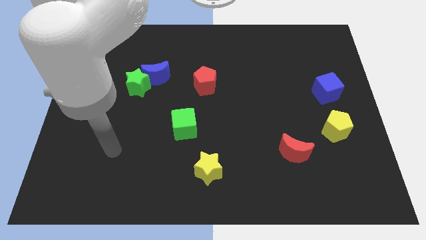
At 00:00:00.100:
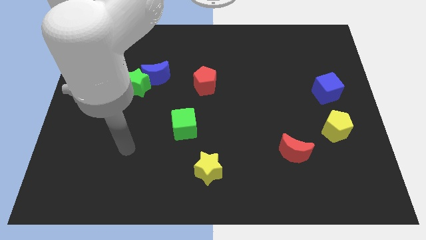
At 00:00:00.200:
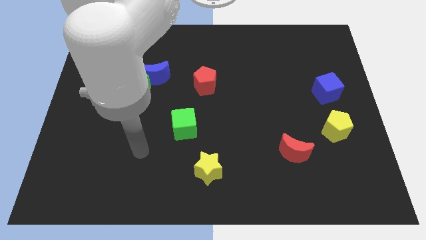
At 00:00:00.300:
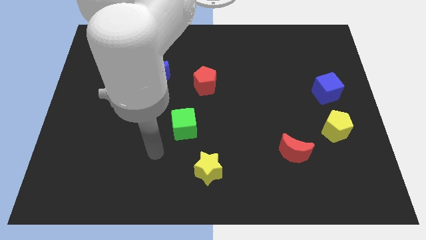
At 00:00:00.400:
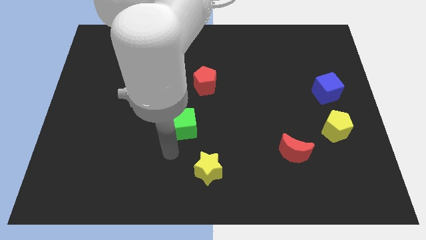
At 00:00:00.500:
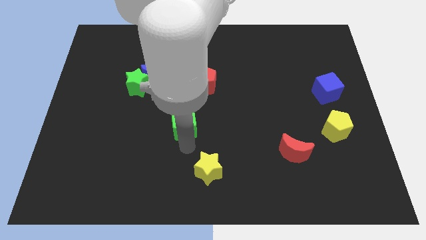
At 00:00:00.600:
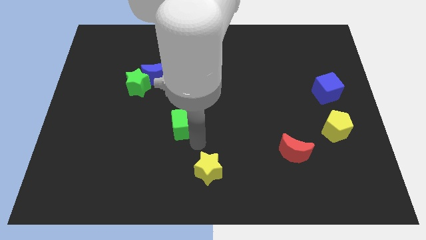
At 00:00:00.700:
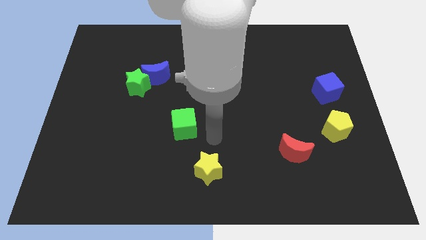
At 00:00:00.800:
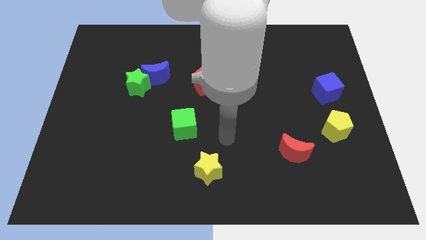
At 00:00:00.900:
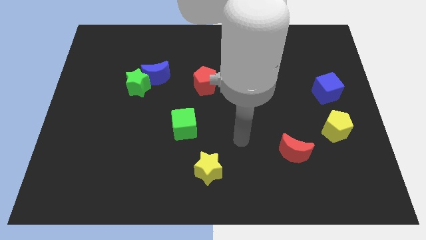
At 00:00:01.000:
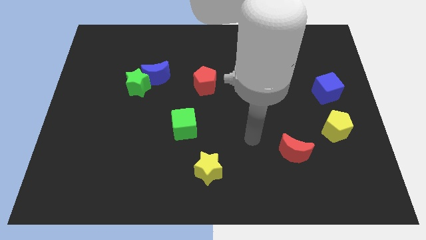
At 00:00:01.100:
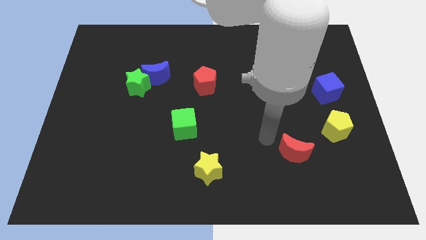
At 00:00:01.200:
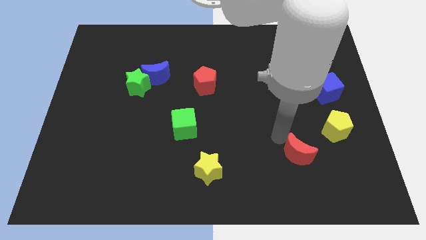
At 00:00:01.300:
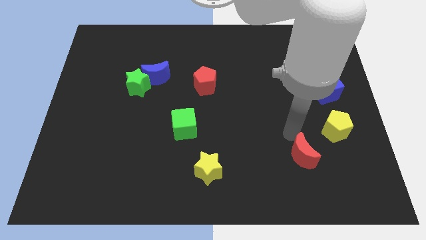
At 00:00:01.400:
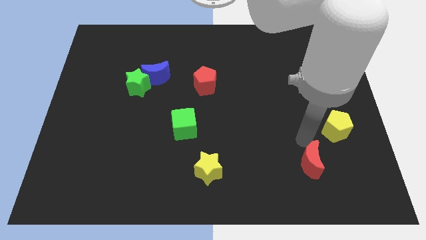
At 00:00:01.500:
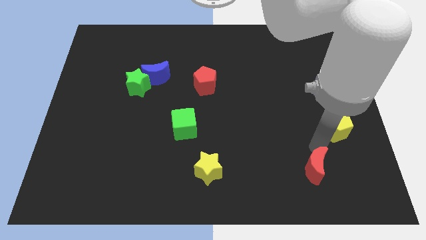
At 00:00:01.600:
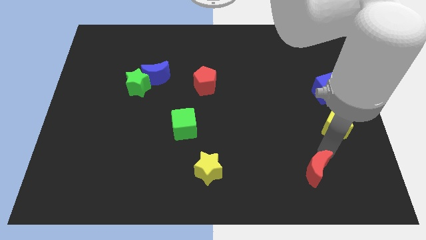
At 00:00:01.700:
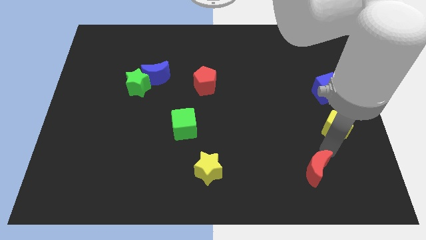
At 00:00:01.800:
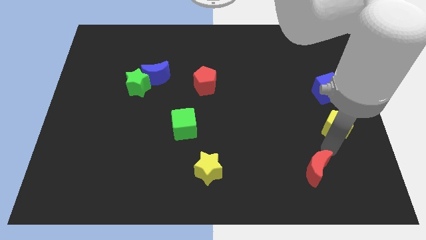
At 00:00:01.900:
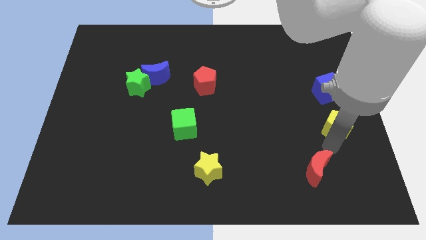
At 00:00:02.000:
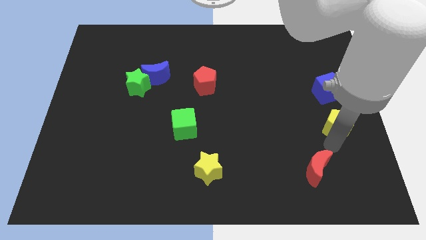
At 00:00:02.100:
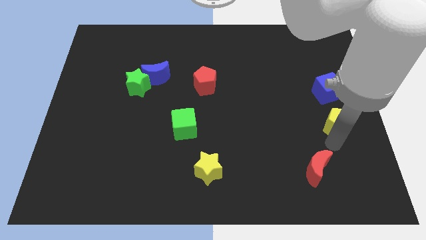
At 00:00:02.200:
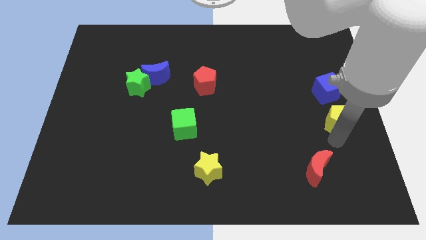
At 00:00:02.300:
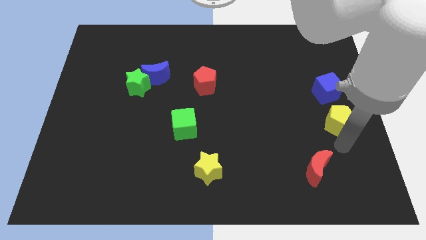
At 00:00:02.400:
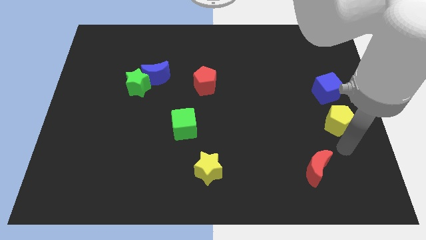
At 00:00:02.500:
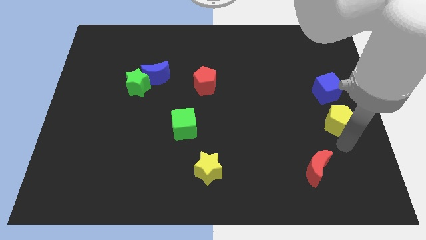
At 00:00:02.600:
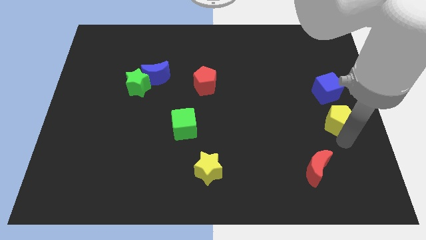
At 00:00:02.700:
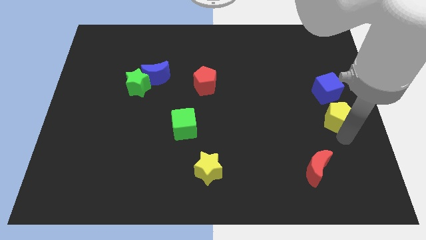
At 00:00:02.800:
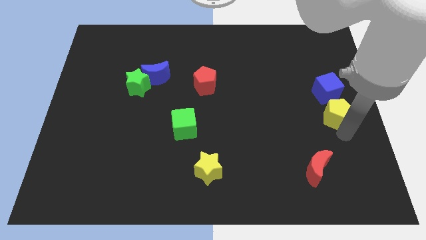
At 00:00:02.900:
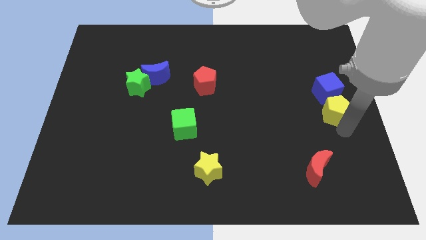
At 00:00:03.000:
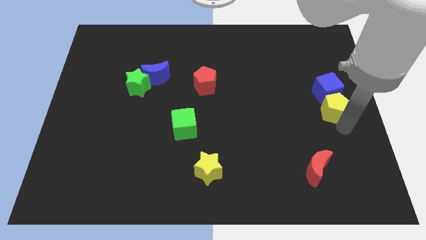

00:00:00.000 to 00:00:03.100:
push the yellow pentagon close to the blue cube

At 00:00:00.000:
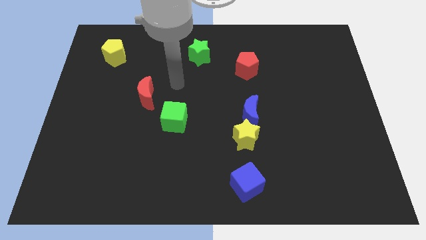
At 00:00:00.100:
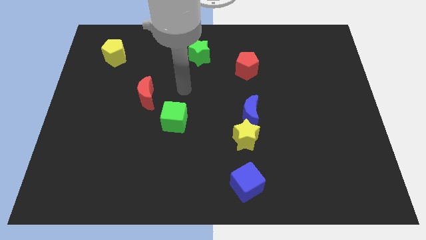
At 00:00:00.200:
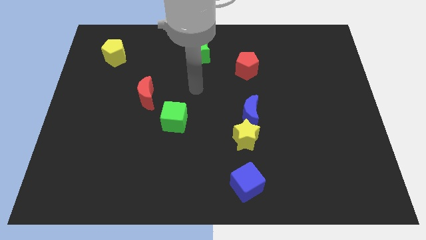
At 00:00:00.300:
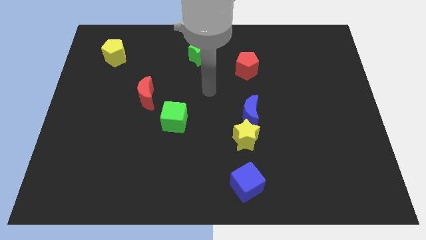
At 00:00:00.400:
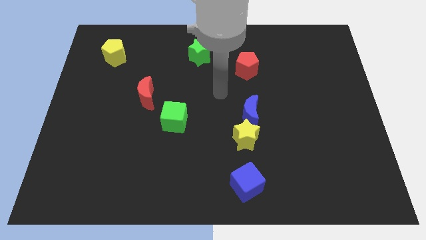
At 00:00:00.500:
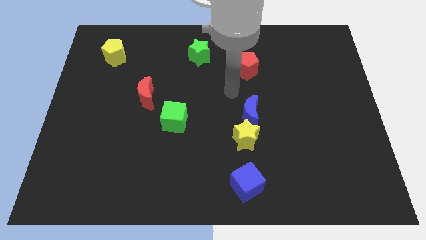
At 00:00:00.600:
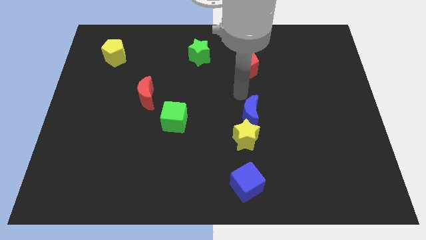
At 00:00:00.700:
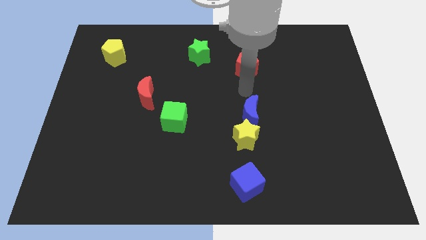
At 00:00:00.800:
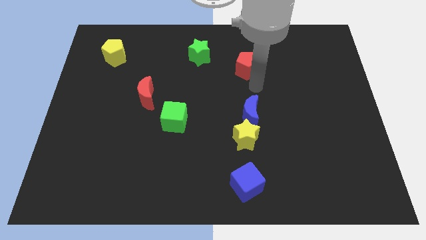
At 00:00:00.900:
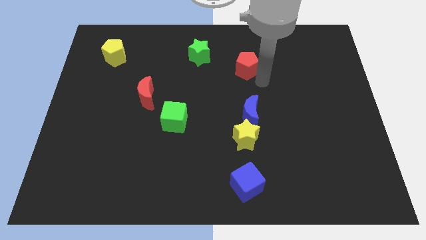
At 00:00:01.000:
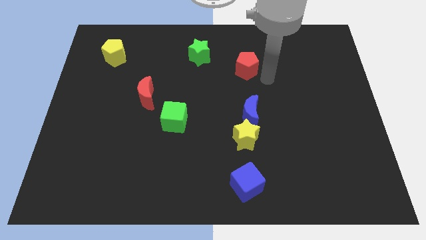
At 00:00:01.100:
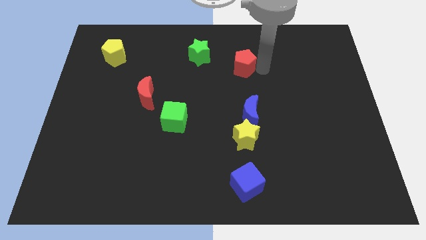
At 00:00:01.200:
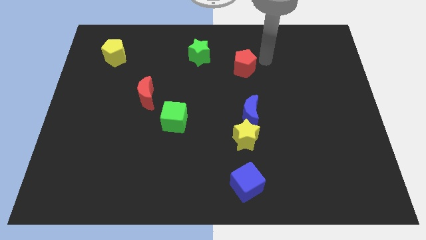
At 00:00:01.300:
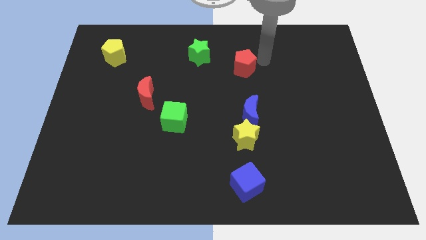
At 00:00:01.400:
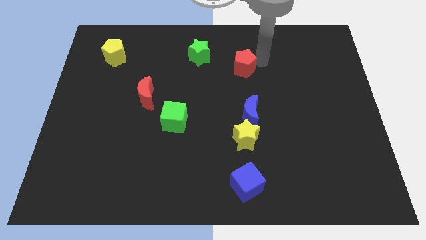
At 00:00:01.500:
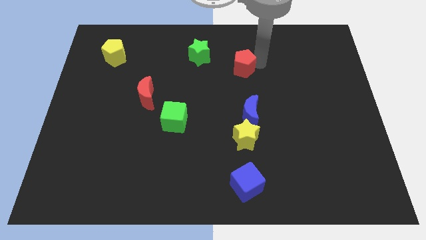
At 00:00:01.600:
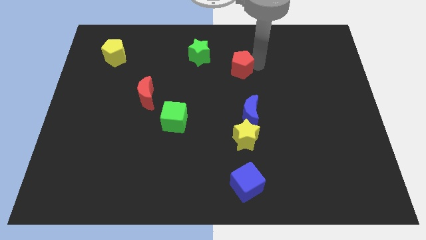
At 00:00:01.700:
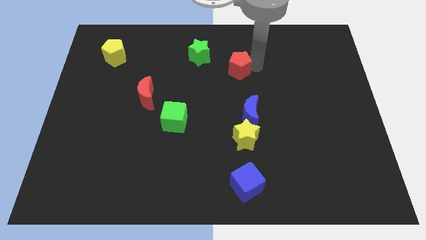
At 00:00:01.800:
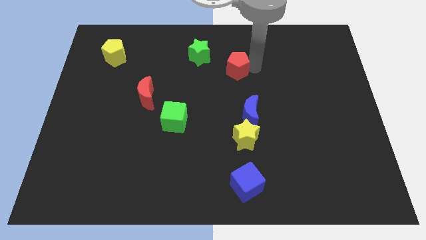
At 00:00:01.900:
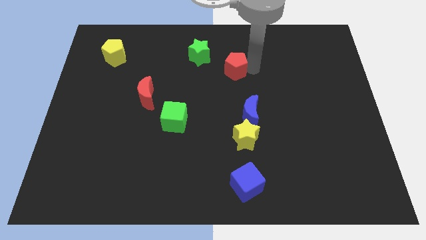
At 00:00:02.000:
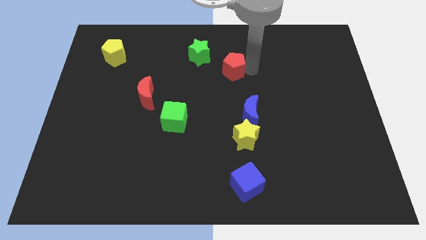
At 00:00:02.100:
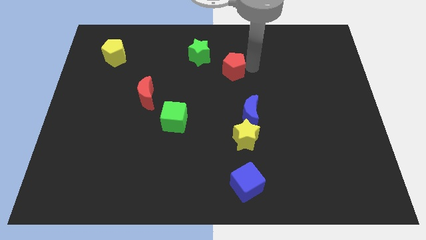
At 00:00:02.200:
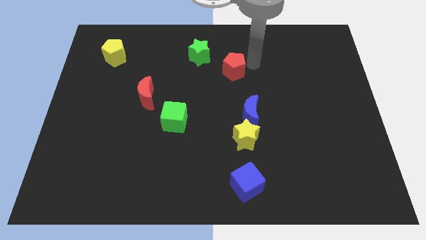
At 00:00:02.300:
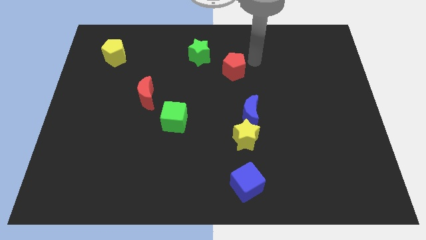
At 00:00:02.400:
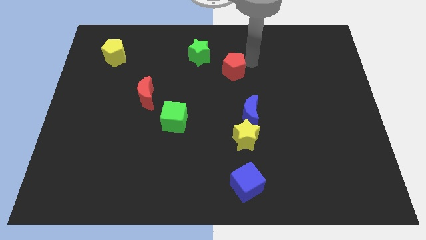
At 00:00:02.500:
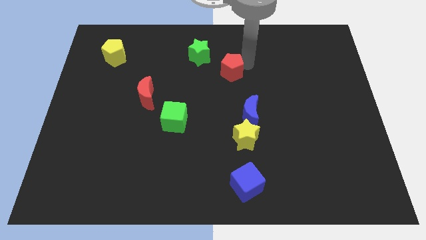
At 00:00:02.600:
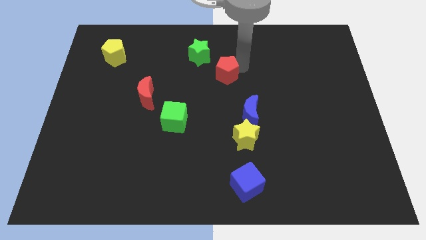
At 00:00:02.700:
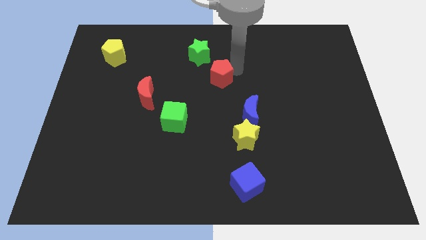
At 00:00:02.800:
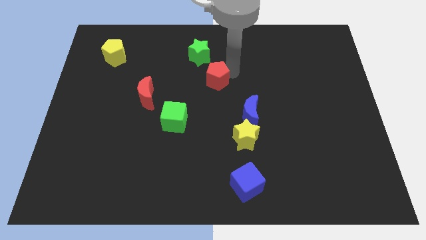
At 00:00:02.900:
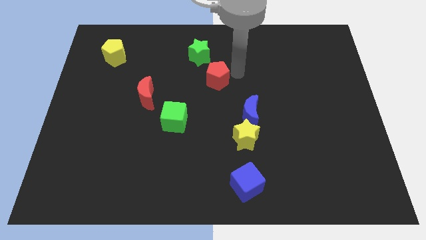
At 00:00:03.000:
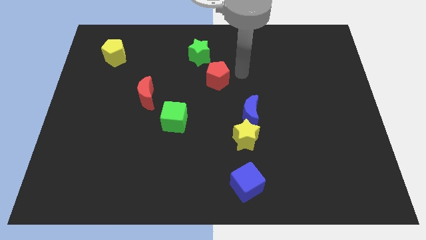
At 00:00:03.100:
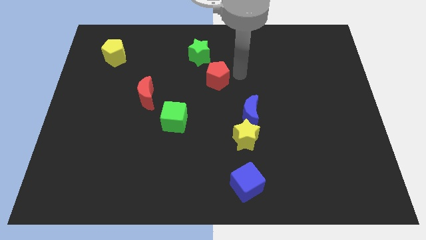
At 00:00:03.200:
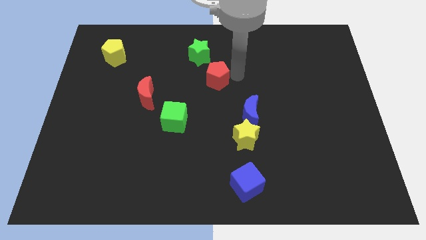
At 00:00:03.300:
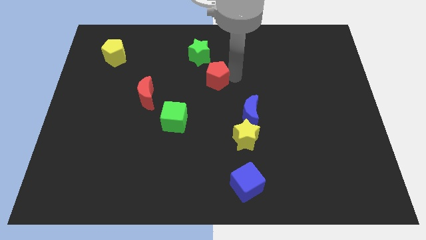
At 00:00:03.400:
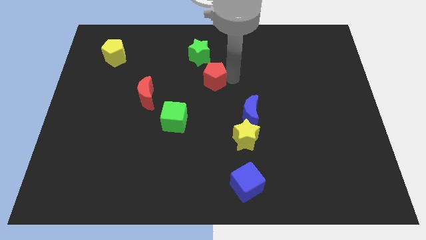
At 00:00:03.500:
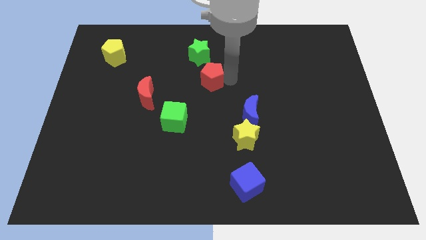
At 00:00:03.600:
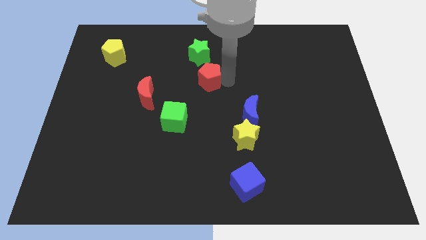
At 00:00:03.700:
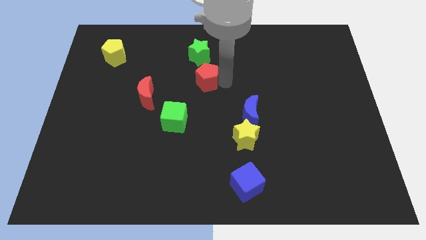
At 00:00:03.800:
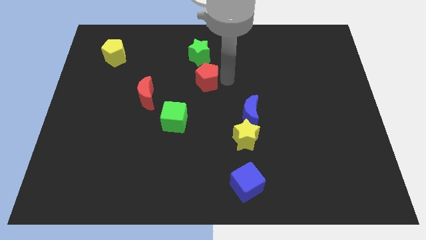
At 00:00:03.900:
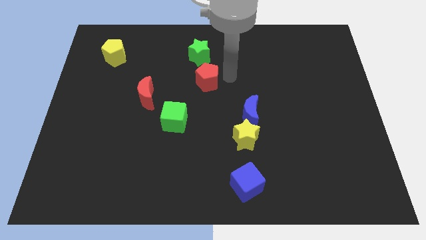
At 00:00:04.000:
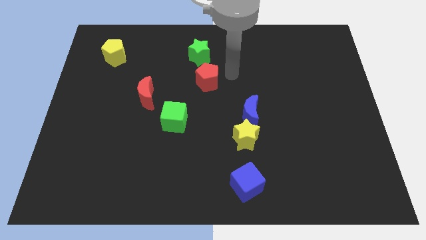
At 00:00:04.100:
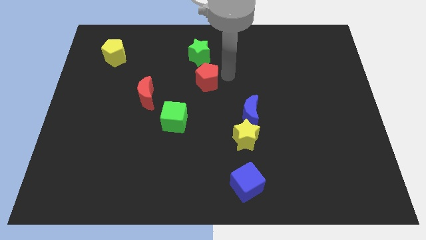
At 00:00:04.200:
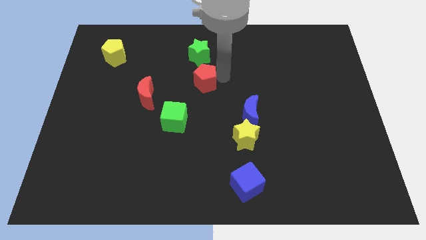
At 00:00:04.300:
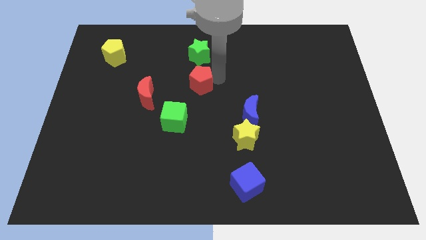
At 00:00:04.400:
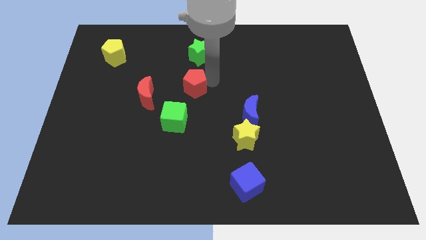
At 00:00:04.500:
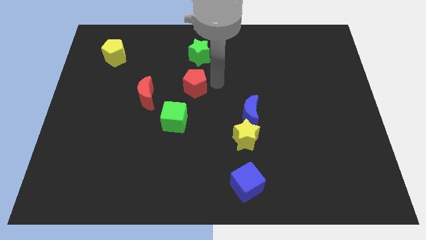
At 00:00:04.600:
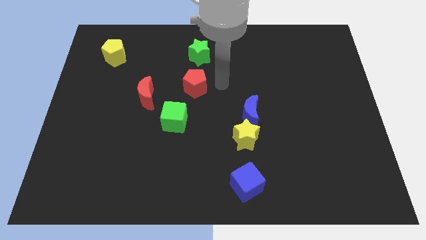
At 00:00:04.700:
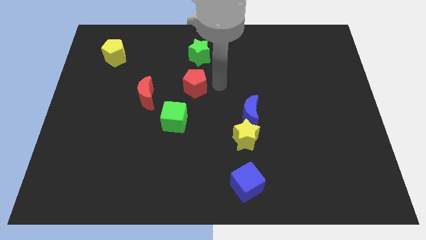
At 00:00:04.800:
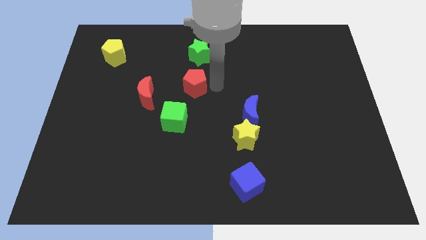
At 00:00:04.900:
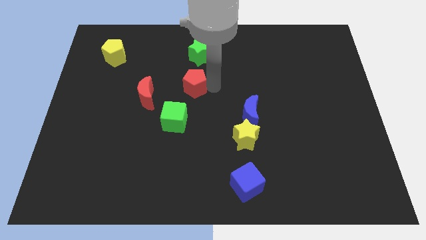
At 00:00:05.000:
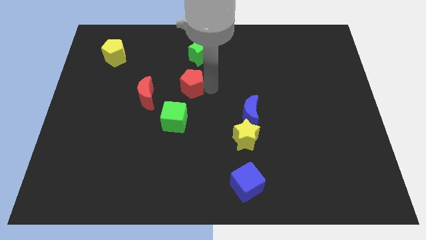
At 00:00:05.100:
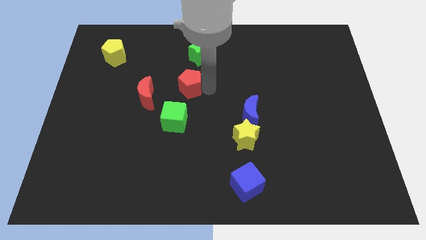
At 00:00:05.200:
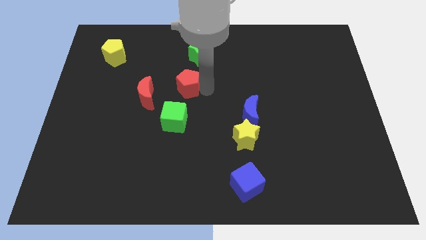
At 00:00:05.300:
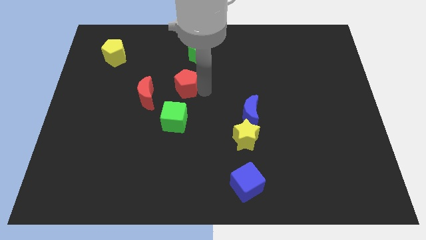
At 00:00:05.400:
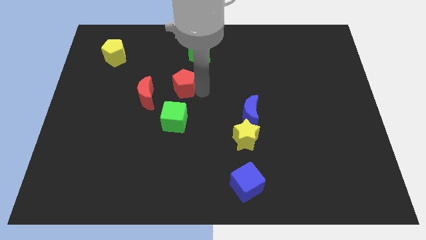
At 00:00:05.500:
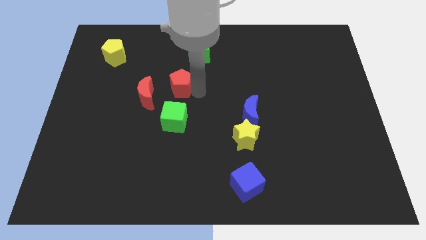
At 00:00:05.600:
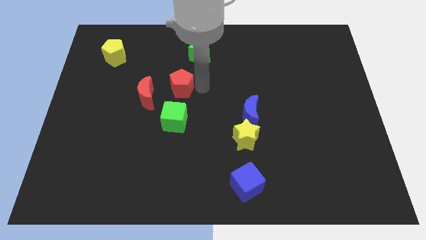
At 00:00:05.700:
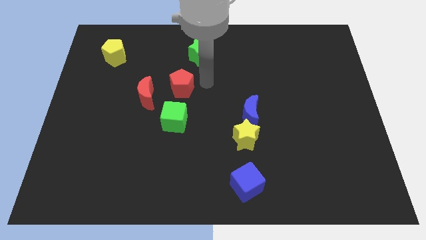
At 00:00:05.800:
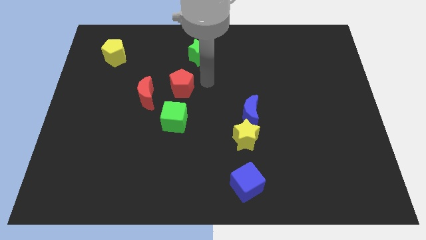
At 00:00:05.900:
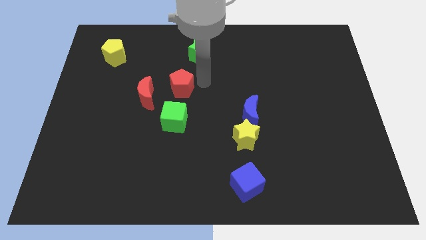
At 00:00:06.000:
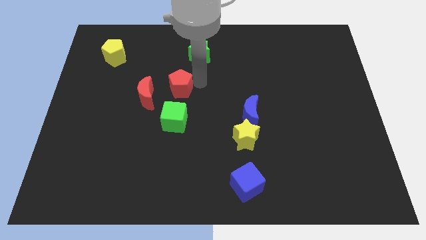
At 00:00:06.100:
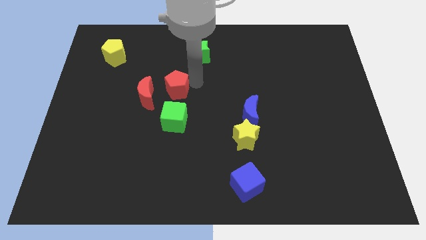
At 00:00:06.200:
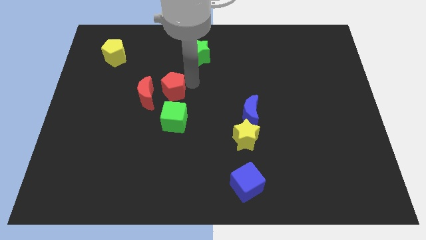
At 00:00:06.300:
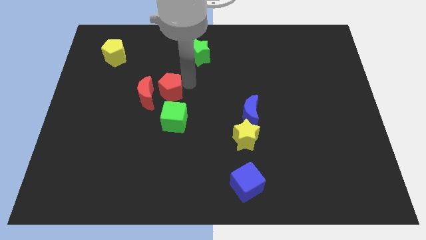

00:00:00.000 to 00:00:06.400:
push the red pentagon close to the red moon
